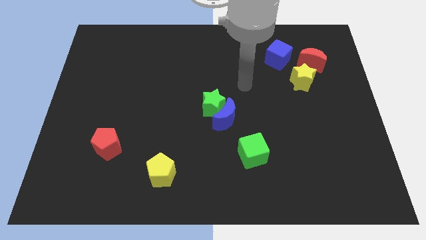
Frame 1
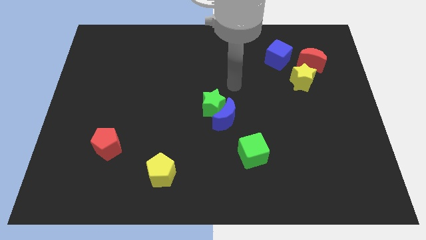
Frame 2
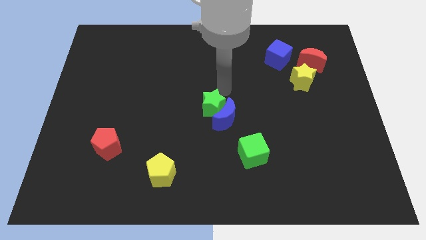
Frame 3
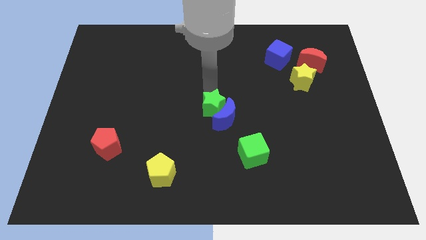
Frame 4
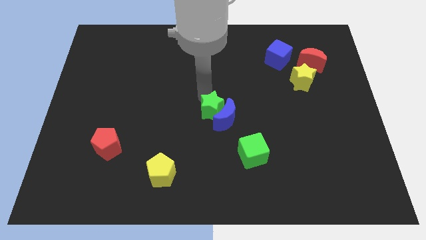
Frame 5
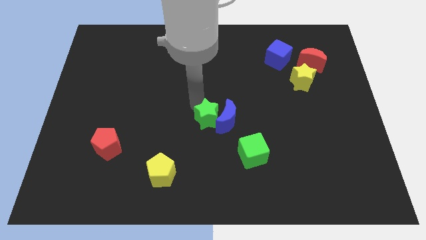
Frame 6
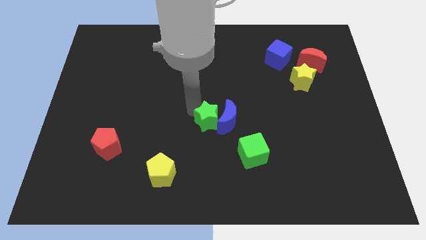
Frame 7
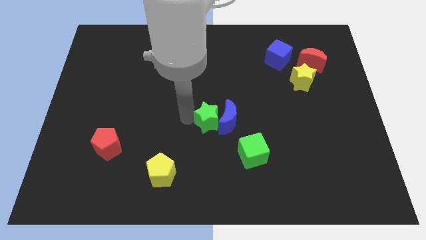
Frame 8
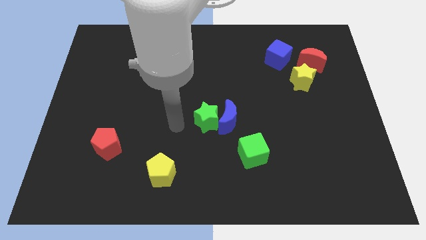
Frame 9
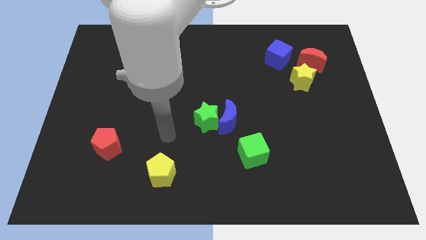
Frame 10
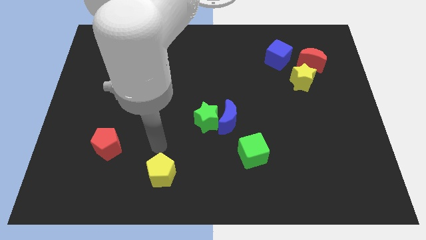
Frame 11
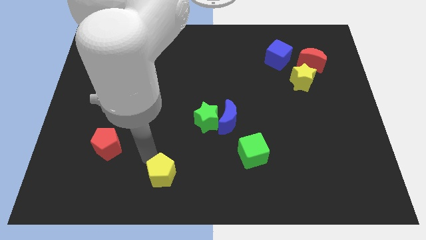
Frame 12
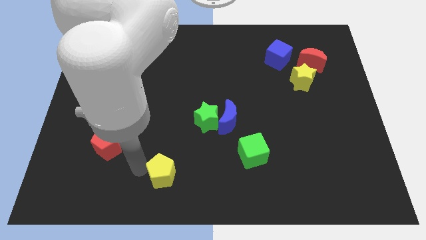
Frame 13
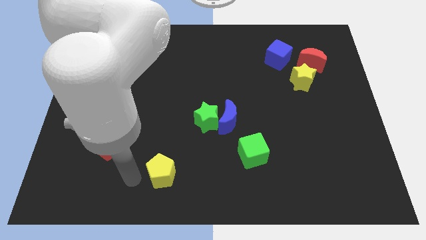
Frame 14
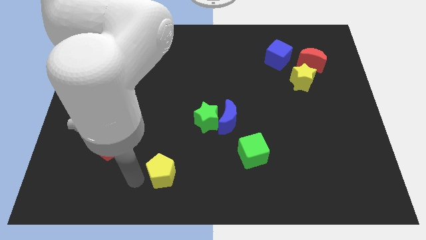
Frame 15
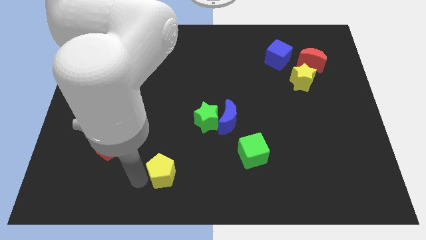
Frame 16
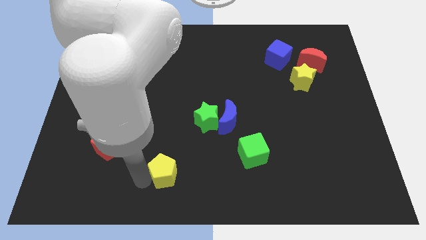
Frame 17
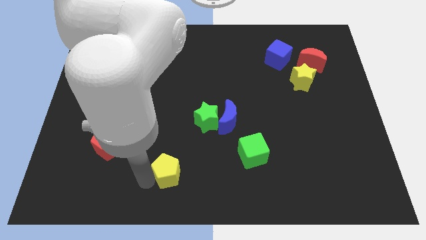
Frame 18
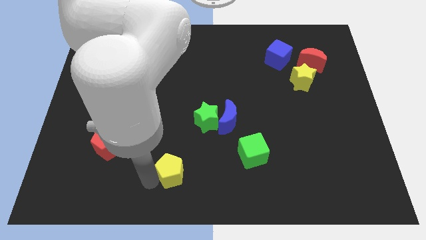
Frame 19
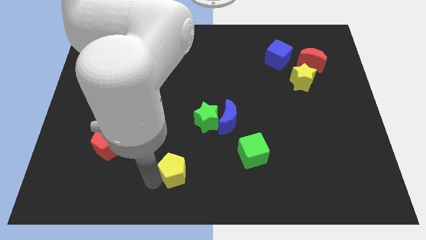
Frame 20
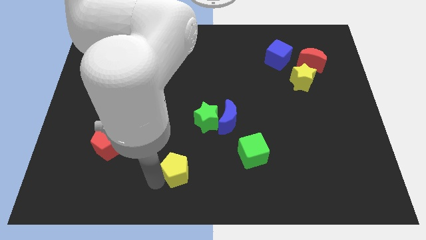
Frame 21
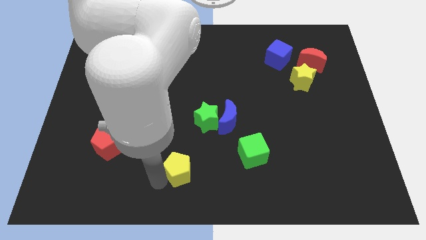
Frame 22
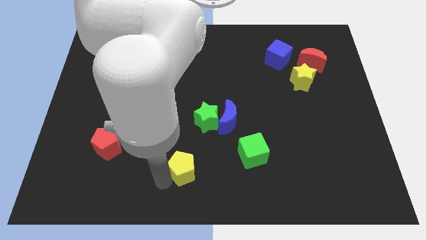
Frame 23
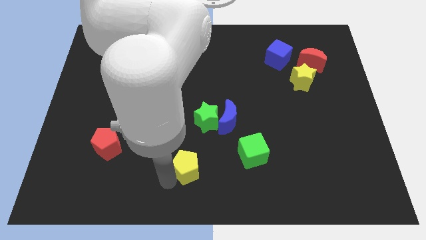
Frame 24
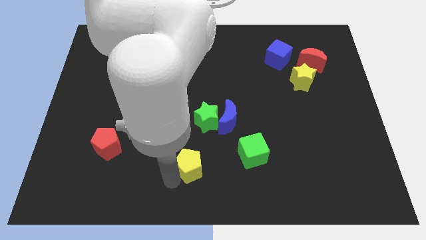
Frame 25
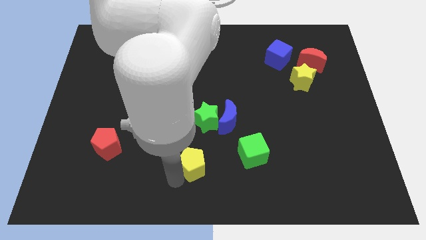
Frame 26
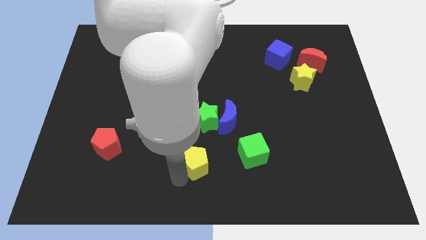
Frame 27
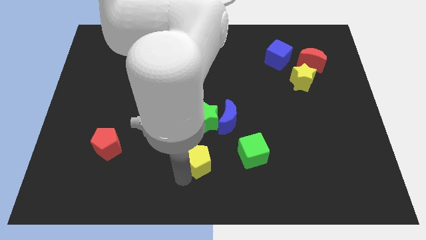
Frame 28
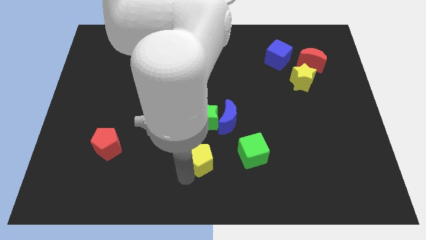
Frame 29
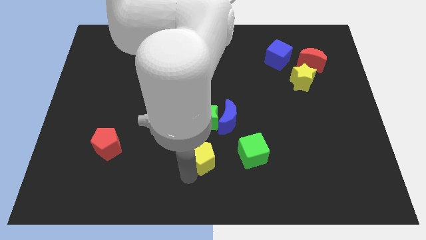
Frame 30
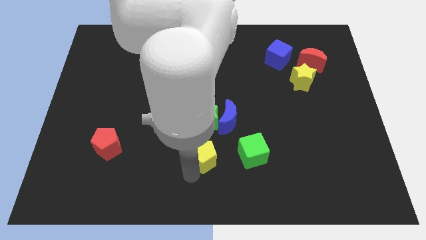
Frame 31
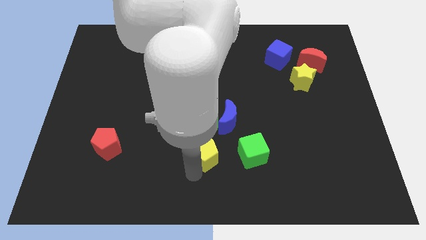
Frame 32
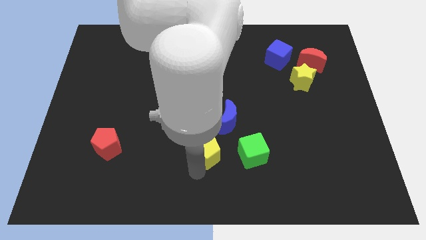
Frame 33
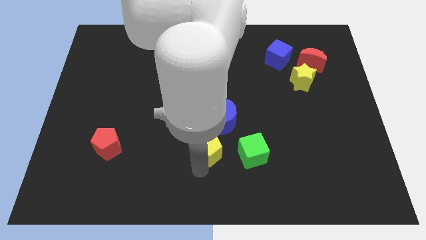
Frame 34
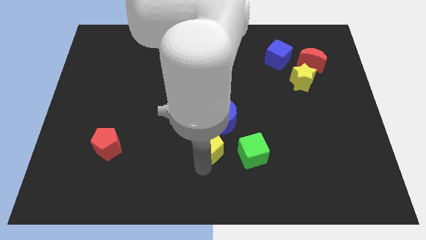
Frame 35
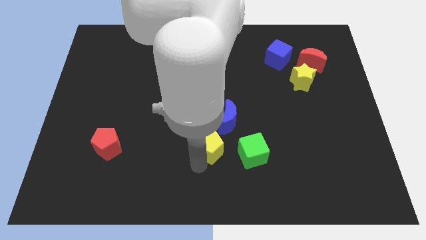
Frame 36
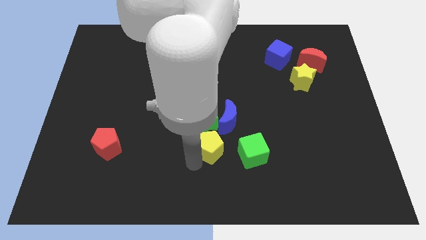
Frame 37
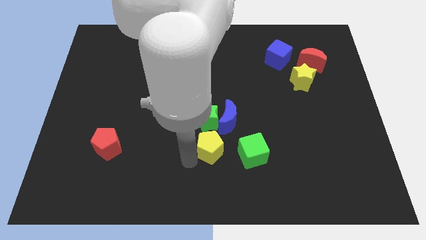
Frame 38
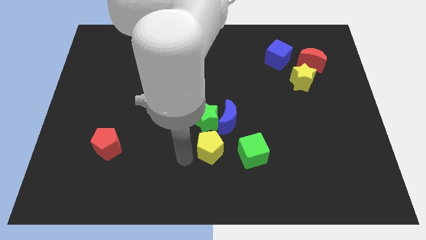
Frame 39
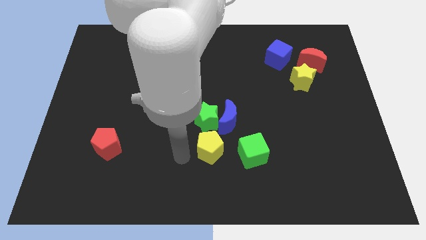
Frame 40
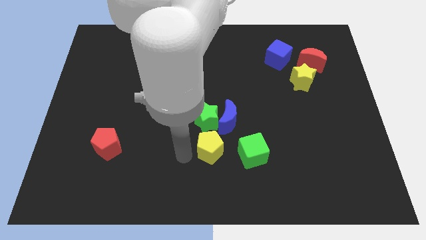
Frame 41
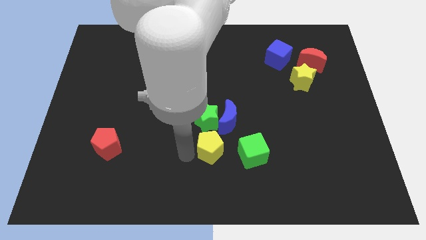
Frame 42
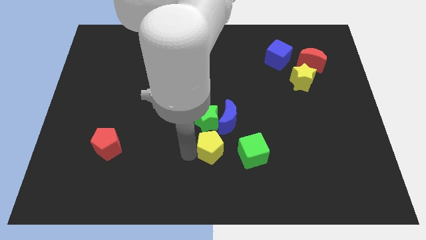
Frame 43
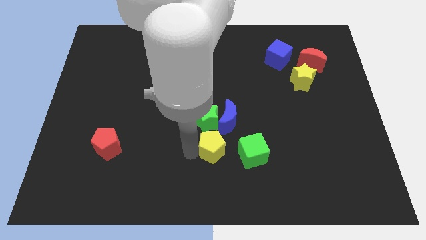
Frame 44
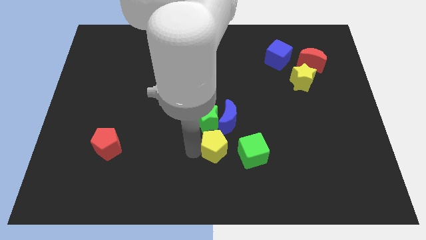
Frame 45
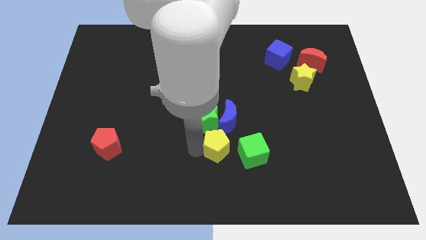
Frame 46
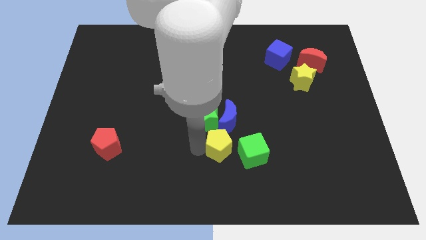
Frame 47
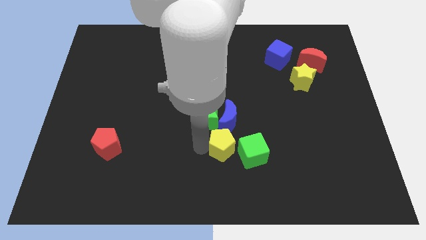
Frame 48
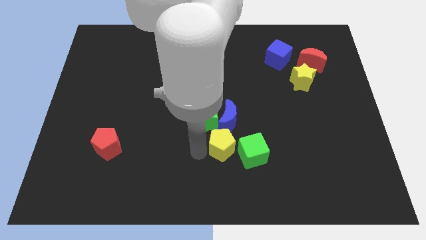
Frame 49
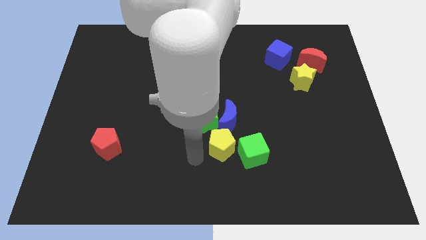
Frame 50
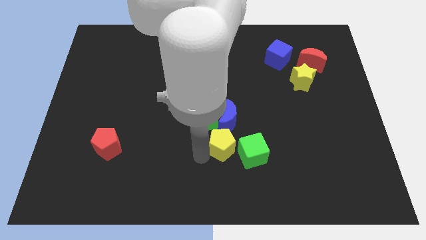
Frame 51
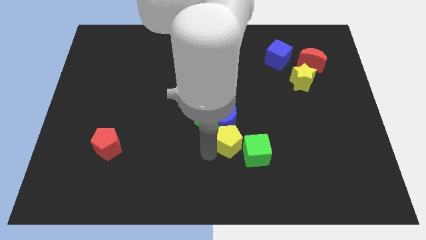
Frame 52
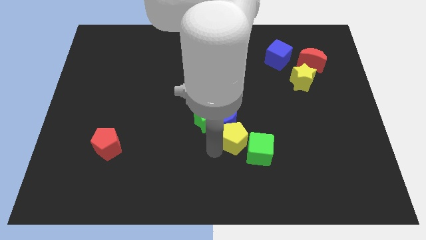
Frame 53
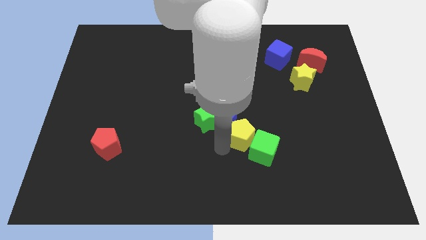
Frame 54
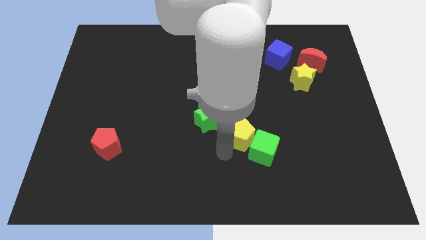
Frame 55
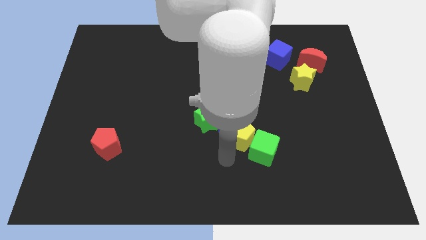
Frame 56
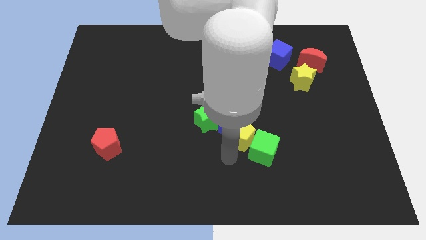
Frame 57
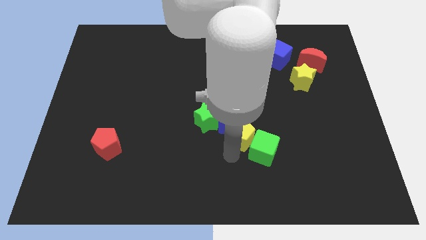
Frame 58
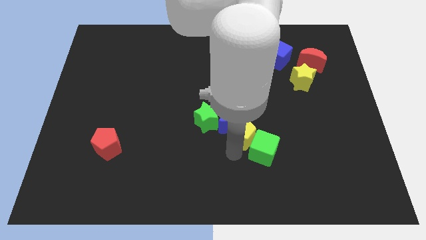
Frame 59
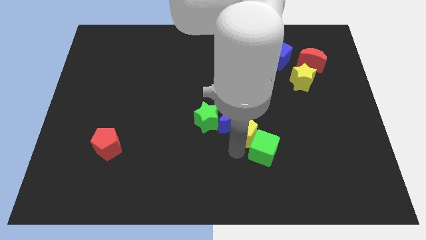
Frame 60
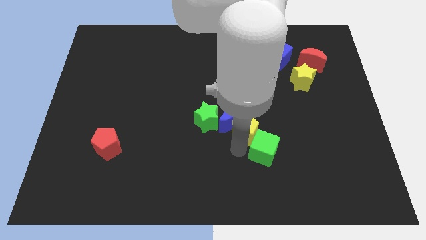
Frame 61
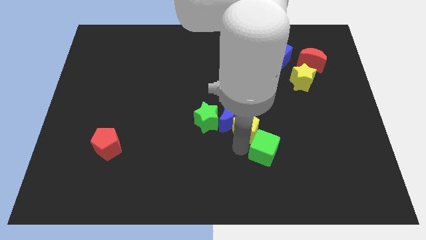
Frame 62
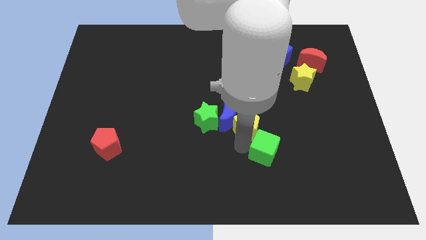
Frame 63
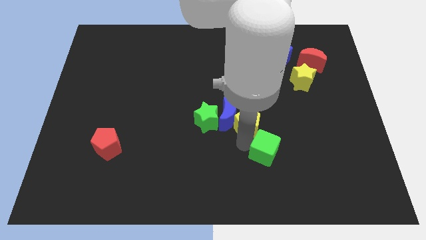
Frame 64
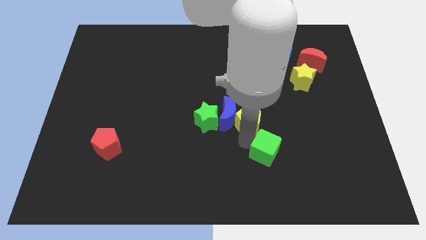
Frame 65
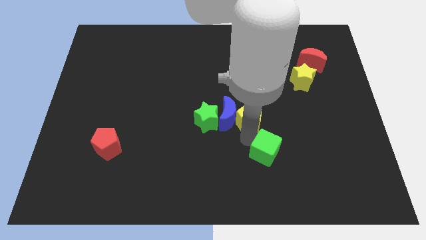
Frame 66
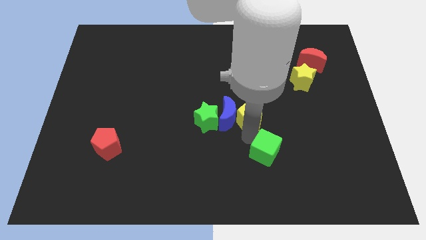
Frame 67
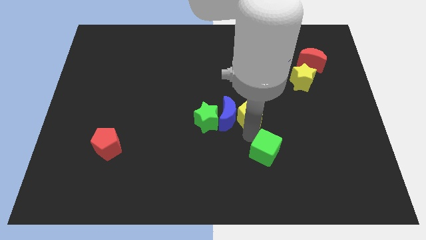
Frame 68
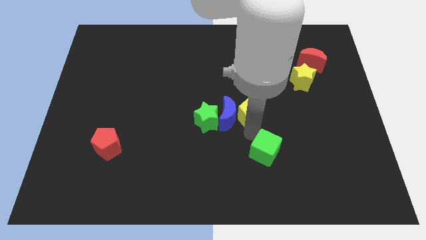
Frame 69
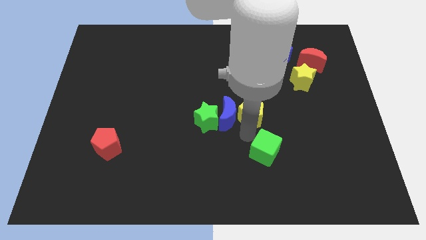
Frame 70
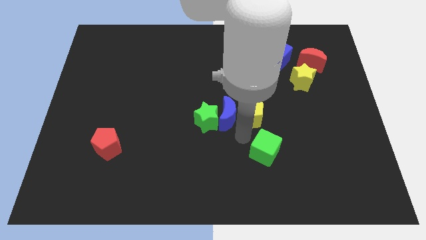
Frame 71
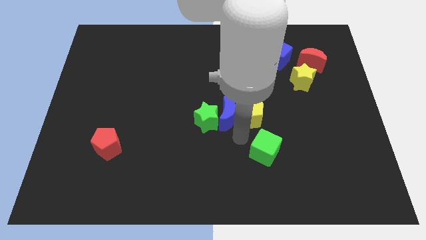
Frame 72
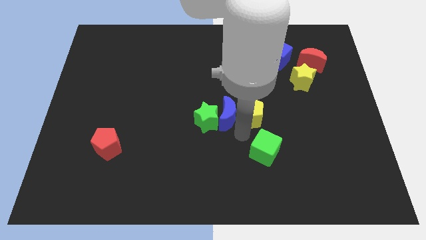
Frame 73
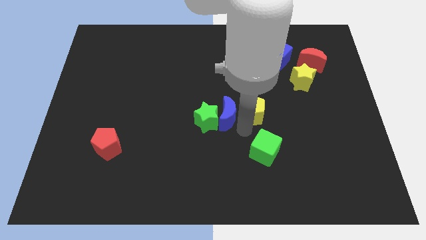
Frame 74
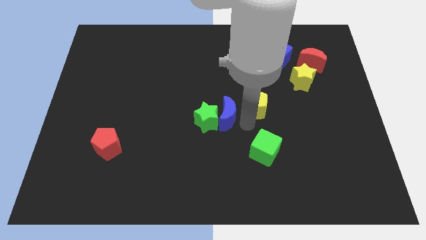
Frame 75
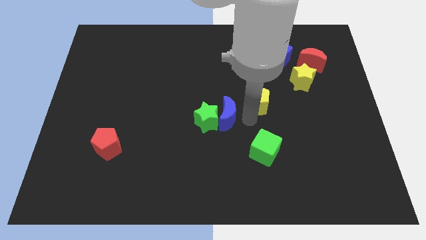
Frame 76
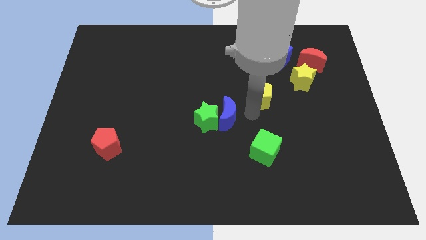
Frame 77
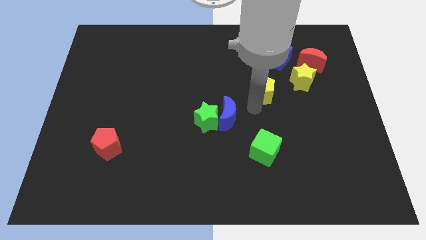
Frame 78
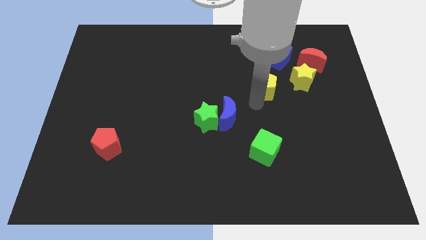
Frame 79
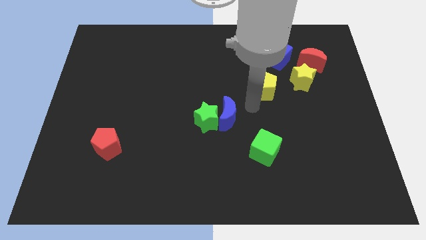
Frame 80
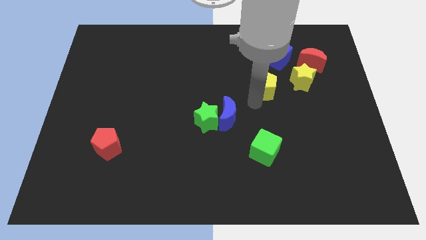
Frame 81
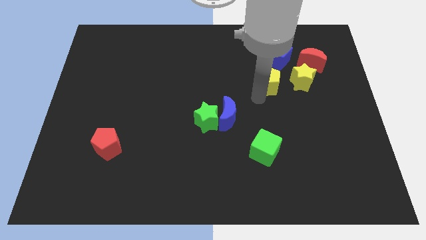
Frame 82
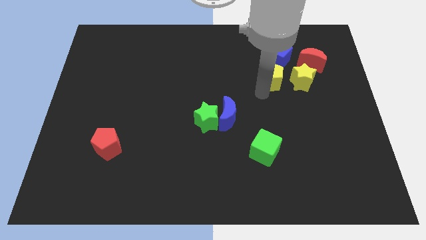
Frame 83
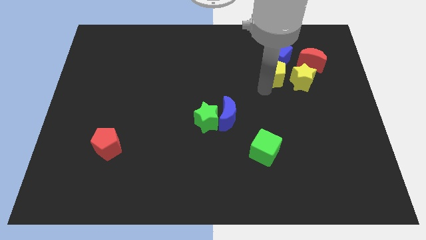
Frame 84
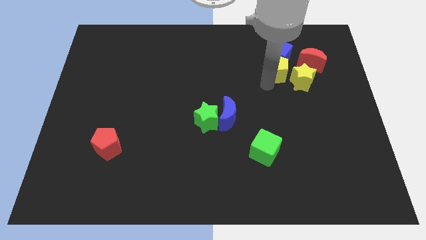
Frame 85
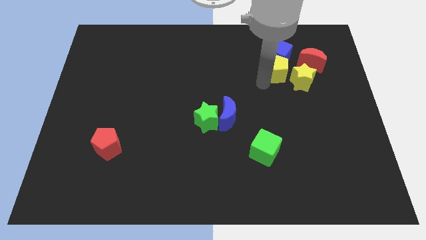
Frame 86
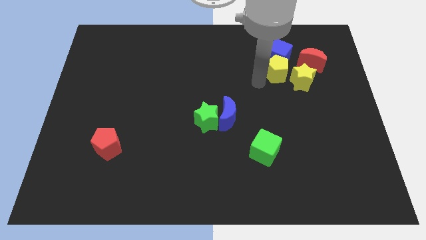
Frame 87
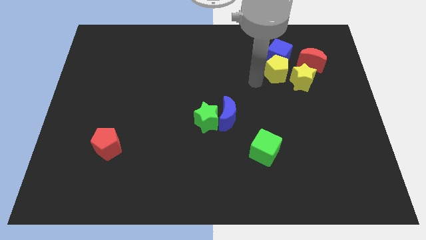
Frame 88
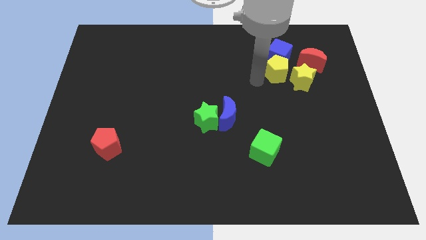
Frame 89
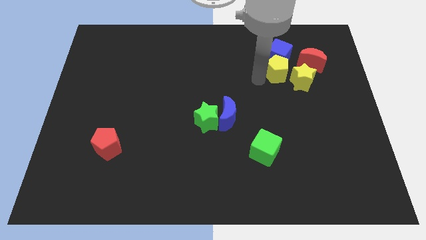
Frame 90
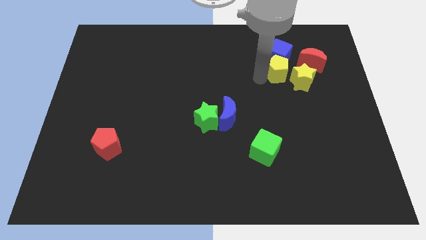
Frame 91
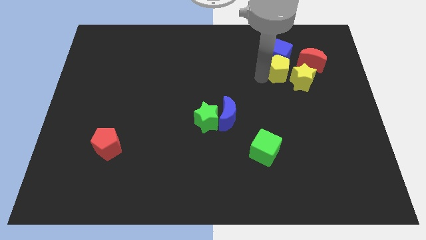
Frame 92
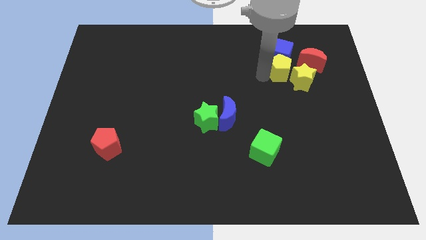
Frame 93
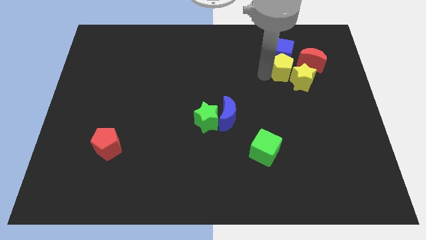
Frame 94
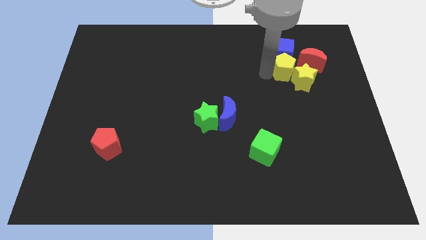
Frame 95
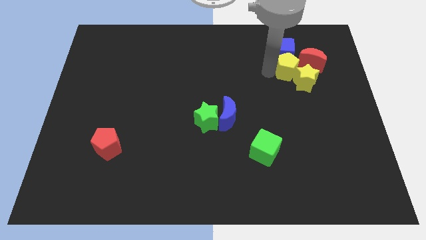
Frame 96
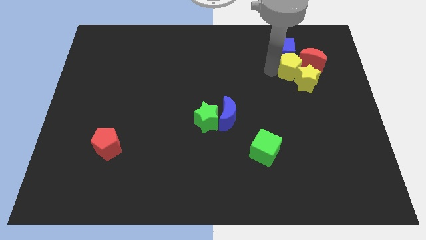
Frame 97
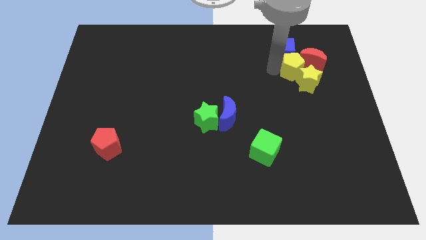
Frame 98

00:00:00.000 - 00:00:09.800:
slide the yellow pentagon towards the red moon
